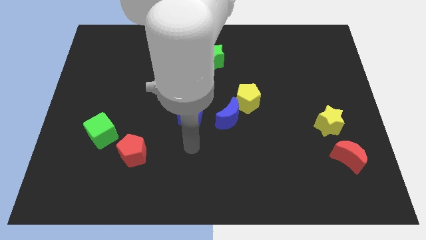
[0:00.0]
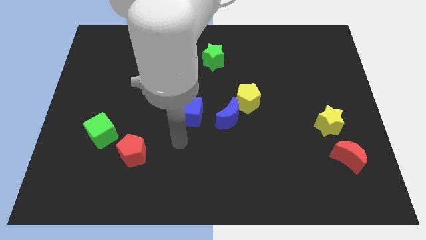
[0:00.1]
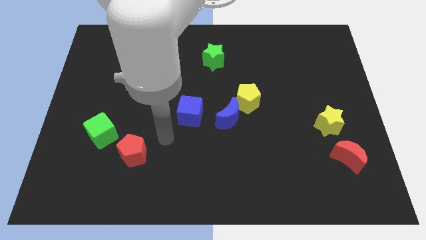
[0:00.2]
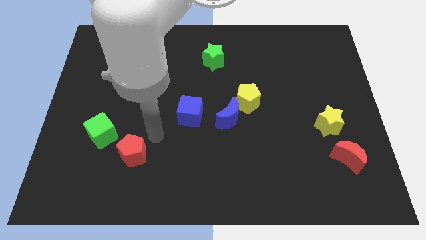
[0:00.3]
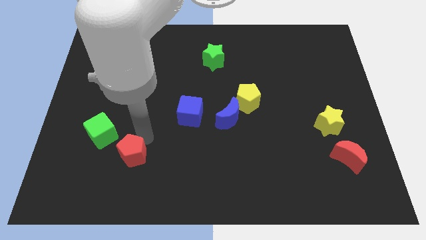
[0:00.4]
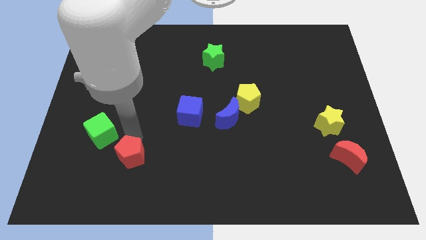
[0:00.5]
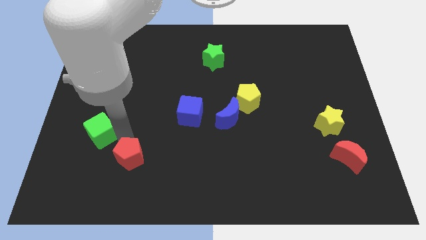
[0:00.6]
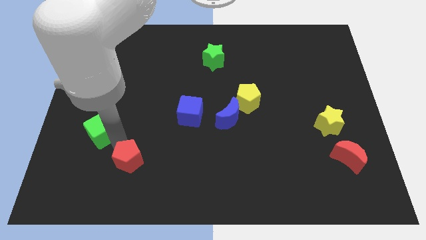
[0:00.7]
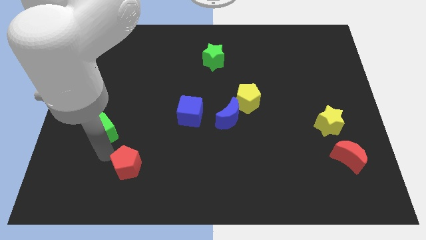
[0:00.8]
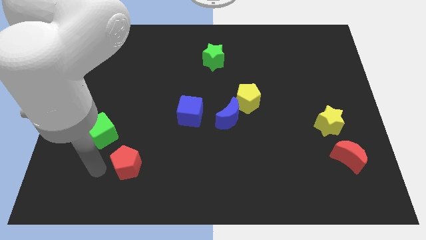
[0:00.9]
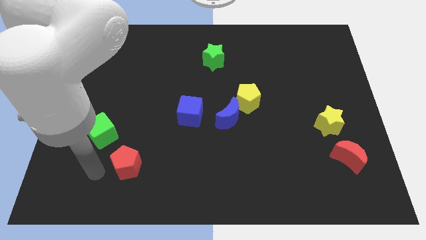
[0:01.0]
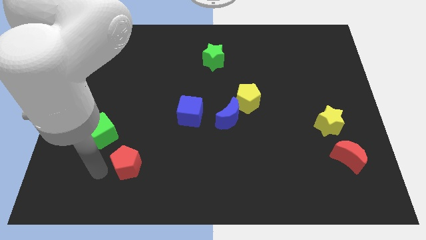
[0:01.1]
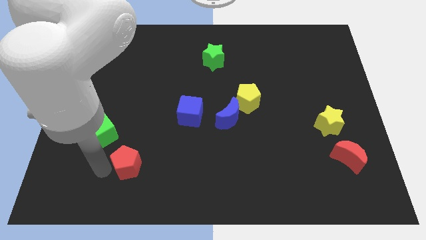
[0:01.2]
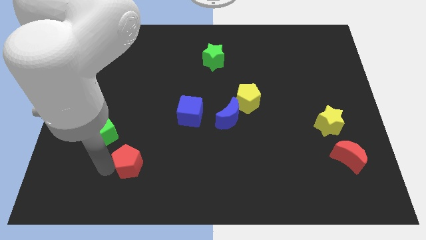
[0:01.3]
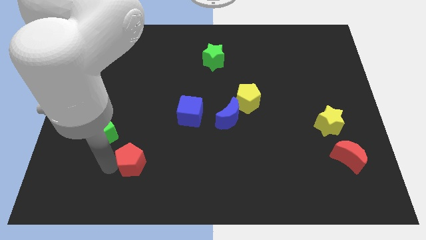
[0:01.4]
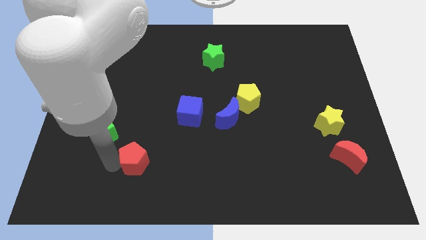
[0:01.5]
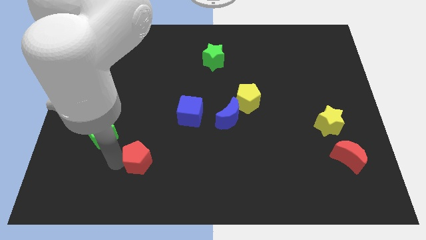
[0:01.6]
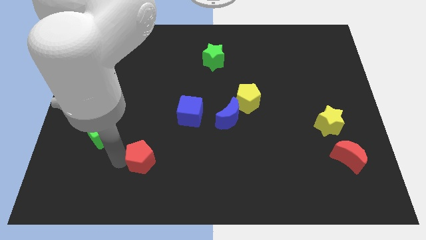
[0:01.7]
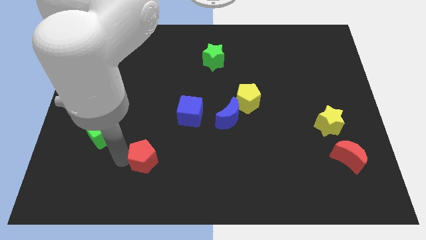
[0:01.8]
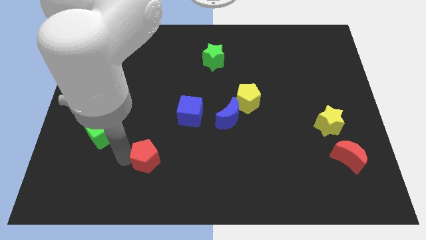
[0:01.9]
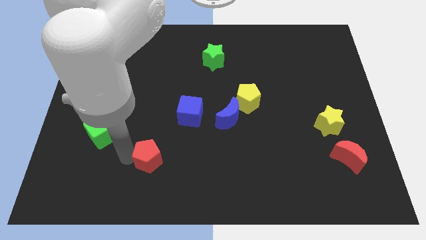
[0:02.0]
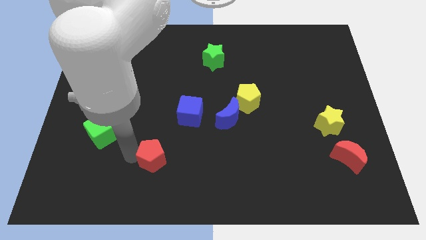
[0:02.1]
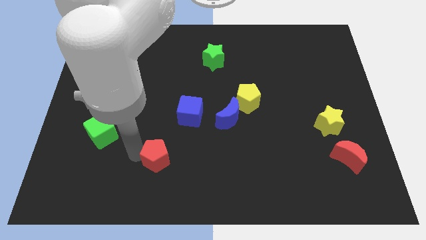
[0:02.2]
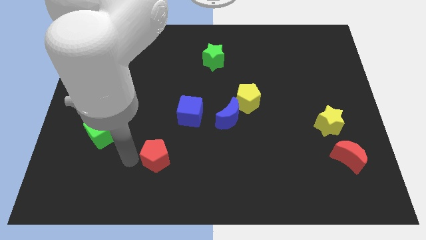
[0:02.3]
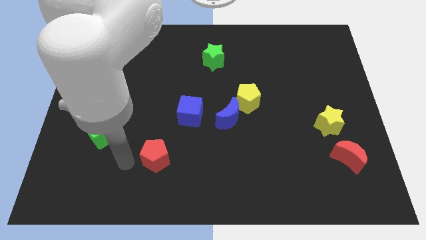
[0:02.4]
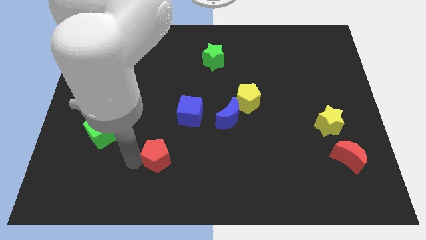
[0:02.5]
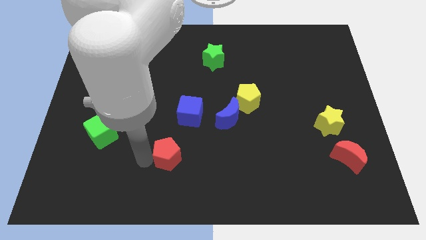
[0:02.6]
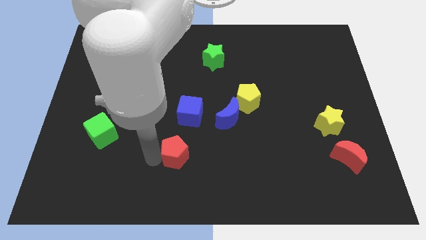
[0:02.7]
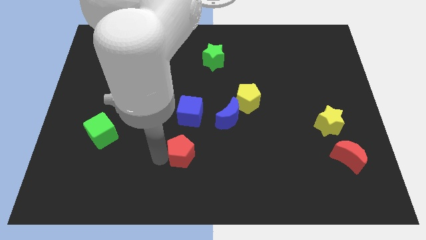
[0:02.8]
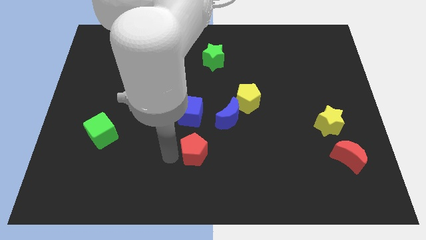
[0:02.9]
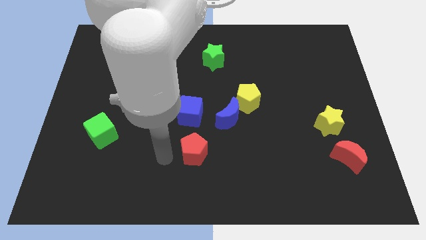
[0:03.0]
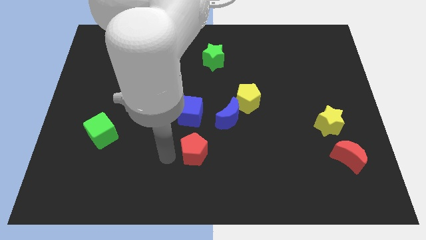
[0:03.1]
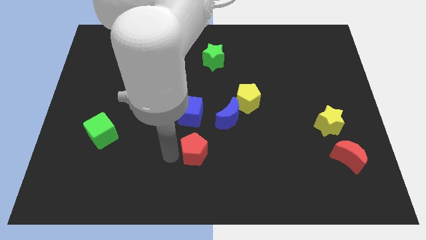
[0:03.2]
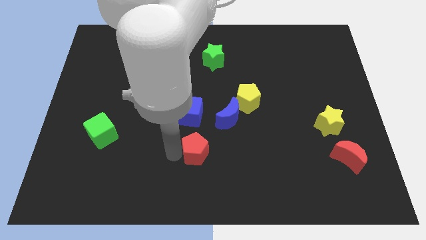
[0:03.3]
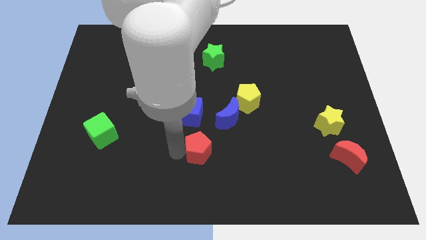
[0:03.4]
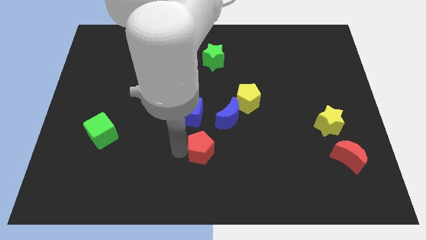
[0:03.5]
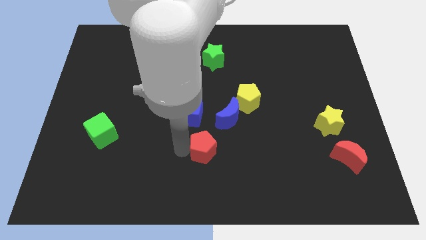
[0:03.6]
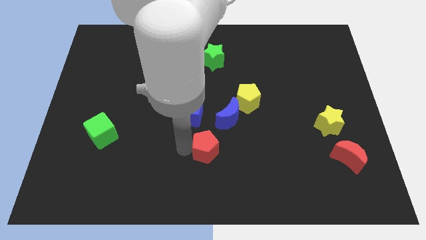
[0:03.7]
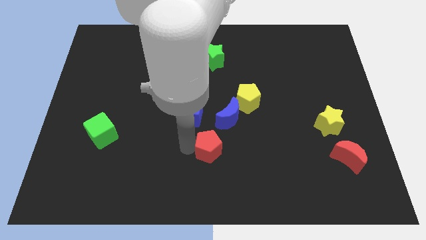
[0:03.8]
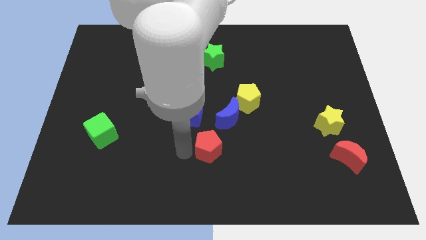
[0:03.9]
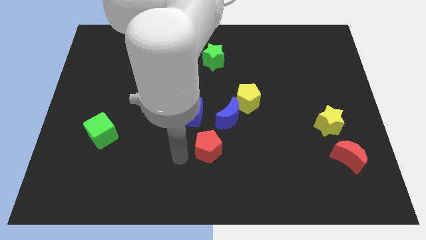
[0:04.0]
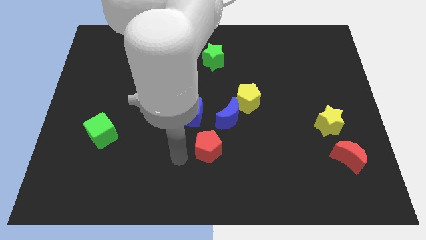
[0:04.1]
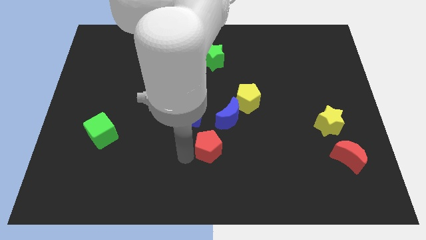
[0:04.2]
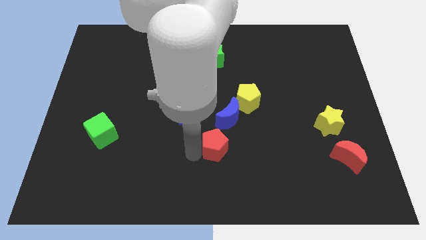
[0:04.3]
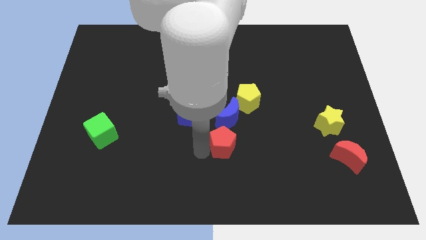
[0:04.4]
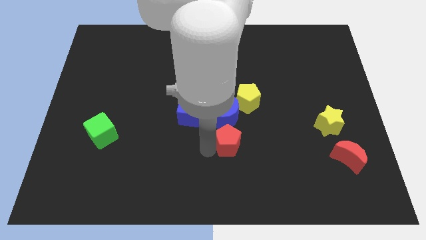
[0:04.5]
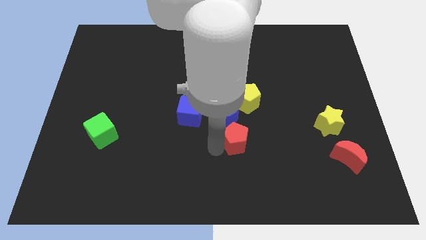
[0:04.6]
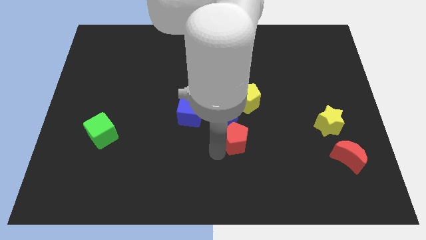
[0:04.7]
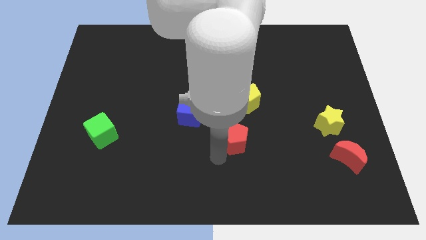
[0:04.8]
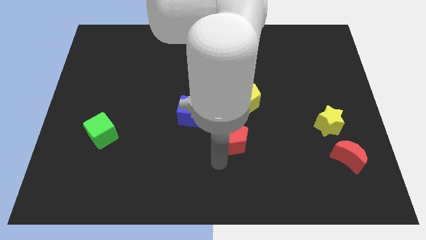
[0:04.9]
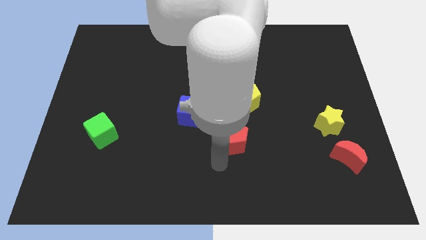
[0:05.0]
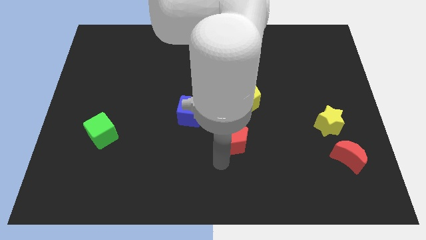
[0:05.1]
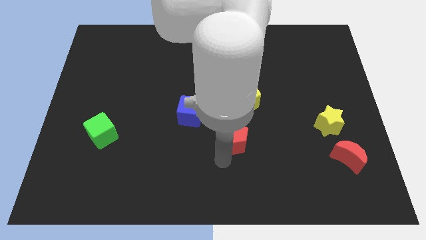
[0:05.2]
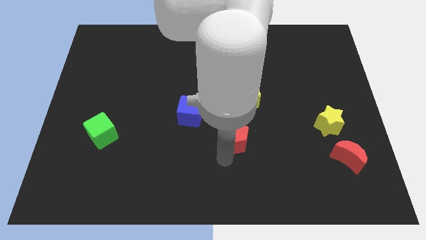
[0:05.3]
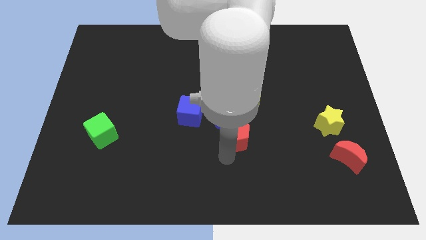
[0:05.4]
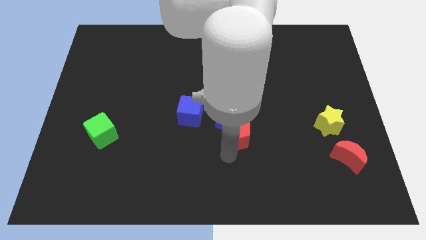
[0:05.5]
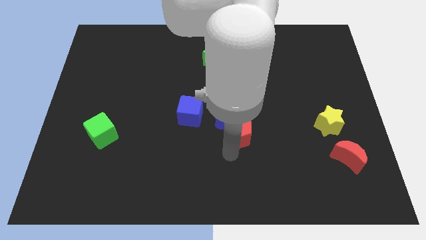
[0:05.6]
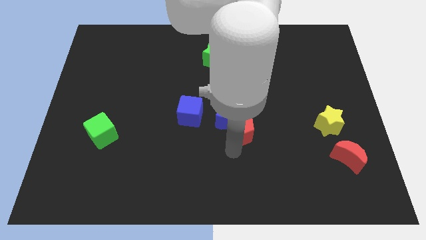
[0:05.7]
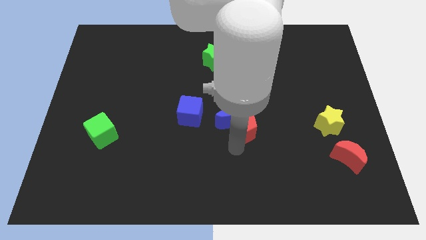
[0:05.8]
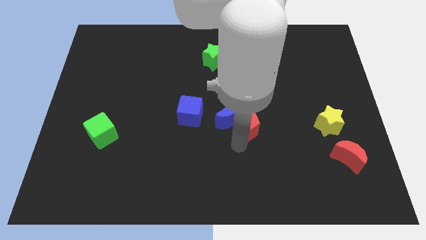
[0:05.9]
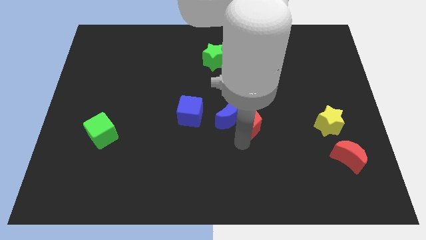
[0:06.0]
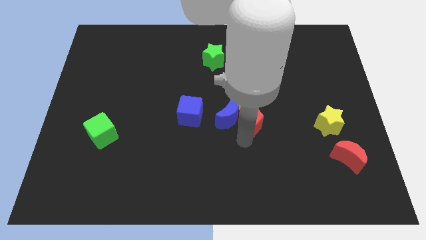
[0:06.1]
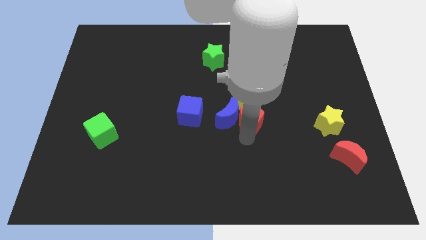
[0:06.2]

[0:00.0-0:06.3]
put the red pentagon close to the yellow pentagon

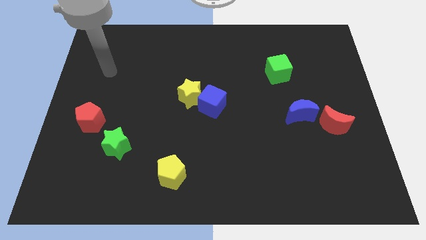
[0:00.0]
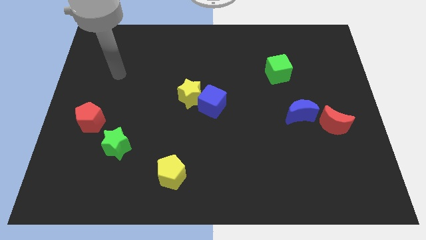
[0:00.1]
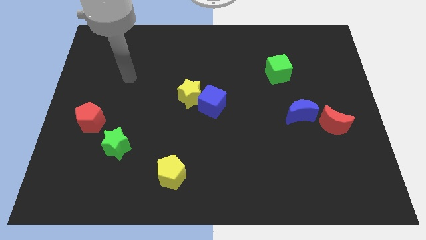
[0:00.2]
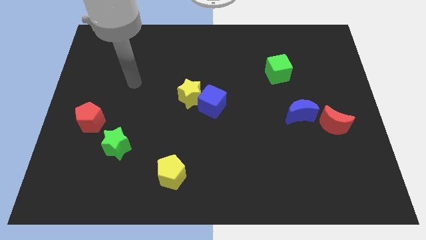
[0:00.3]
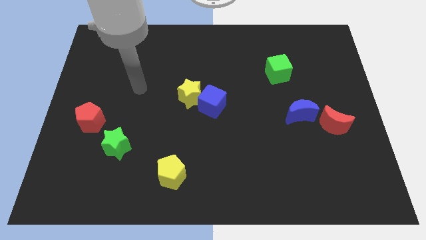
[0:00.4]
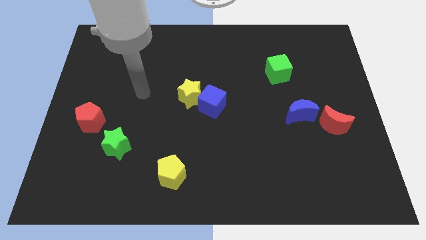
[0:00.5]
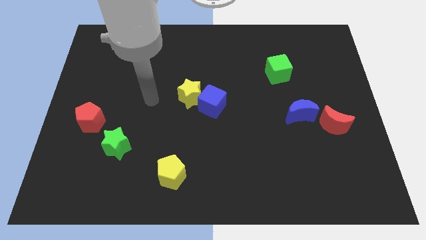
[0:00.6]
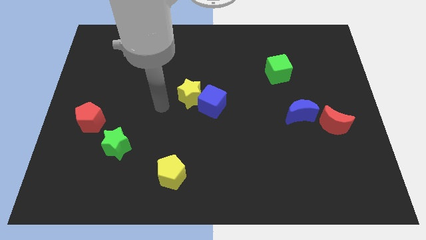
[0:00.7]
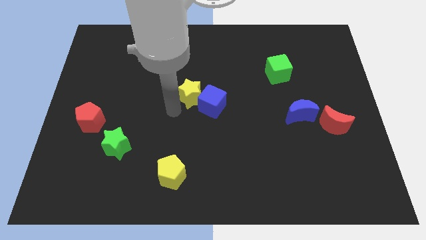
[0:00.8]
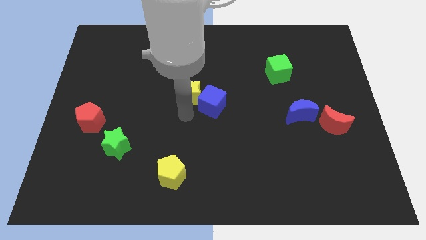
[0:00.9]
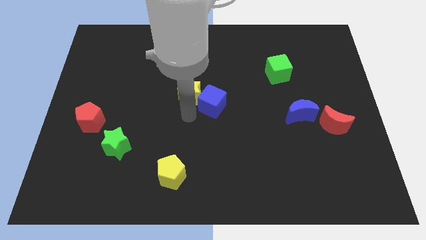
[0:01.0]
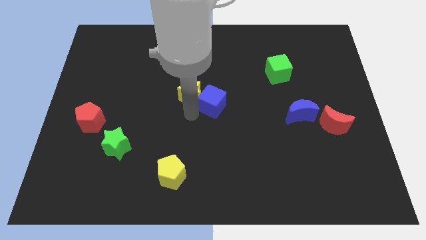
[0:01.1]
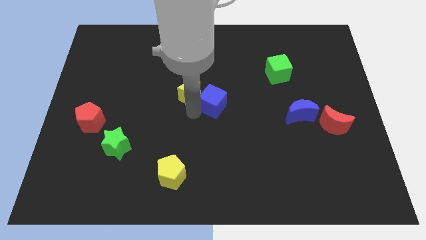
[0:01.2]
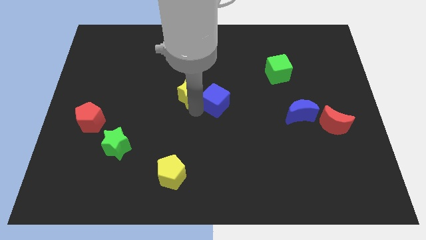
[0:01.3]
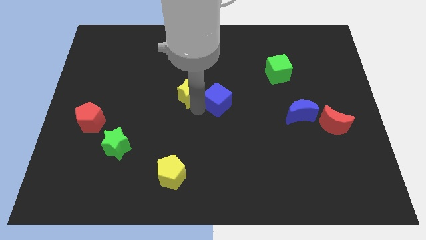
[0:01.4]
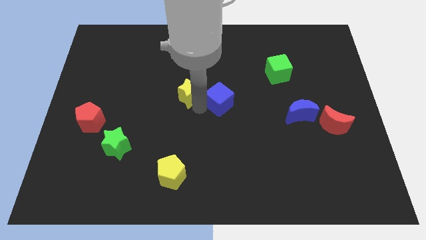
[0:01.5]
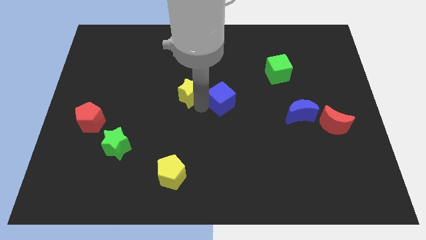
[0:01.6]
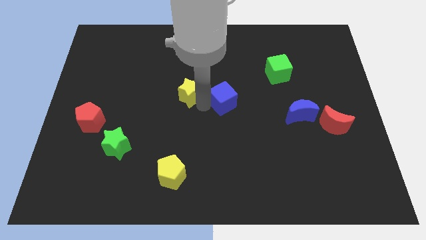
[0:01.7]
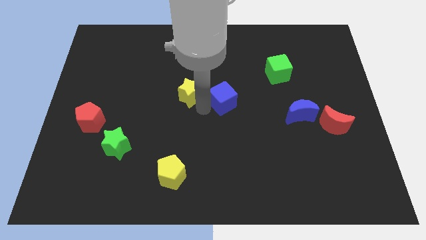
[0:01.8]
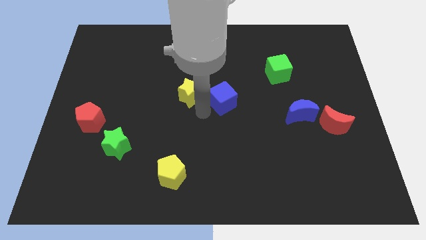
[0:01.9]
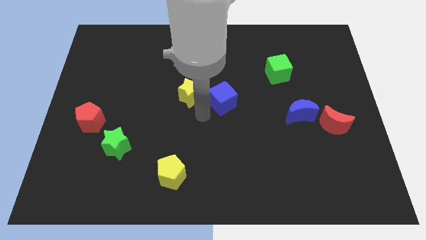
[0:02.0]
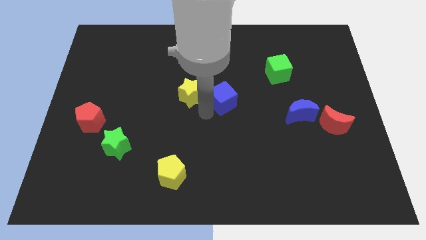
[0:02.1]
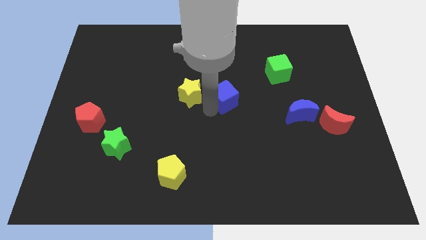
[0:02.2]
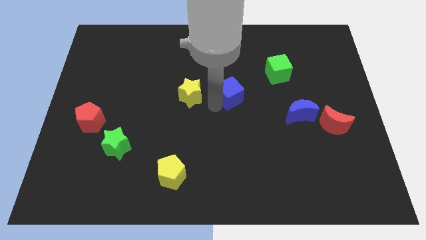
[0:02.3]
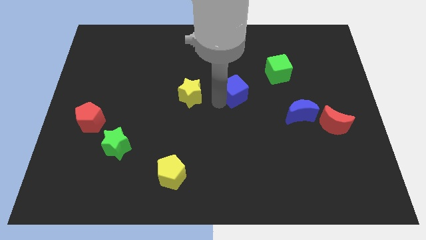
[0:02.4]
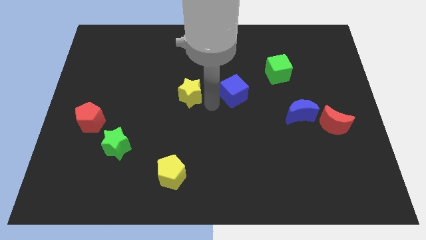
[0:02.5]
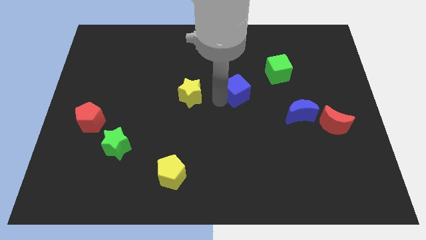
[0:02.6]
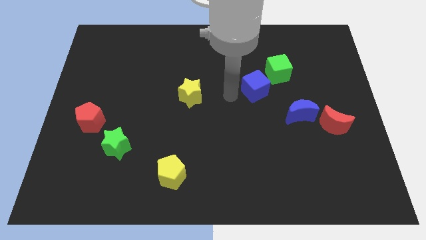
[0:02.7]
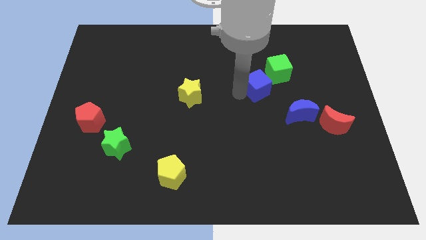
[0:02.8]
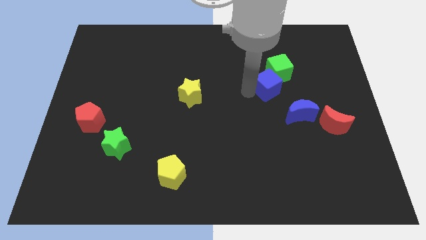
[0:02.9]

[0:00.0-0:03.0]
move the blue cube towards the green cube
